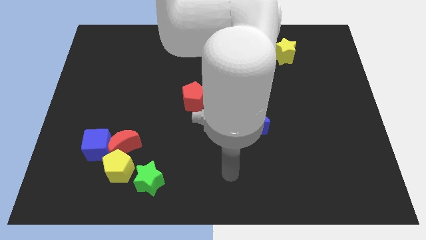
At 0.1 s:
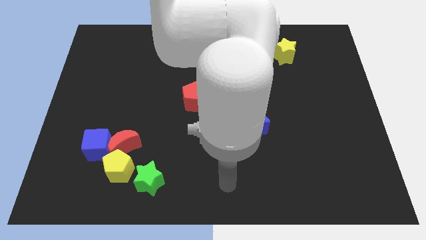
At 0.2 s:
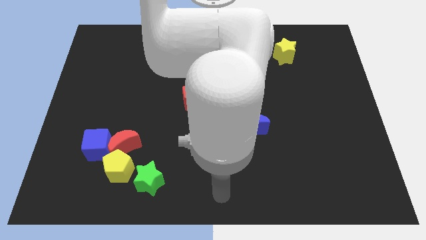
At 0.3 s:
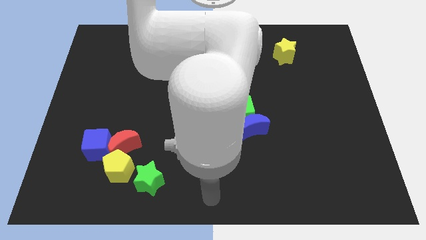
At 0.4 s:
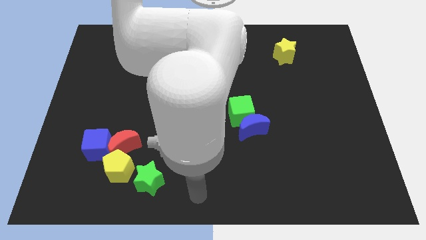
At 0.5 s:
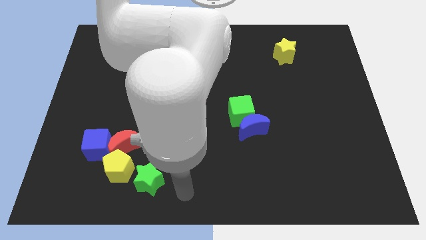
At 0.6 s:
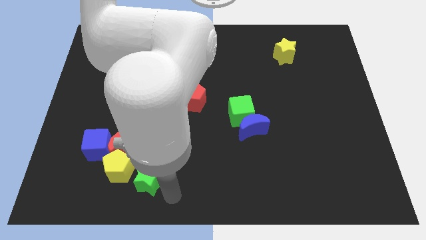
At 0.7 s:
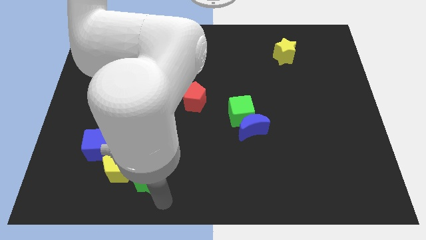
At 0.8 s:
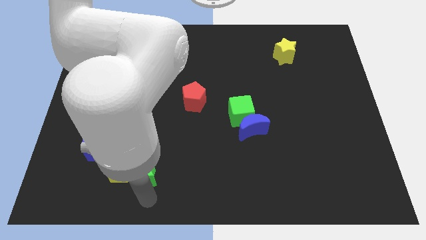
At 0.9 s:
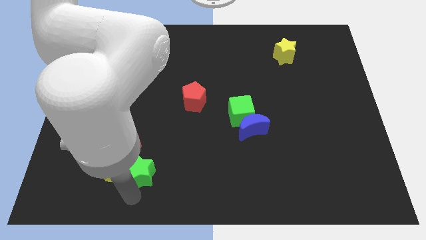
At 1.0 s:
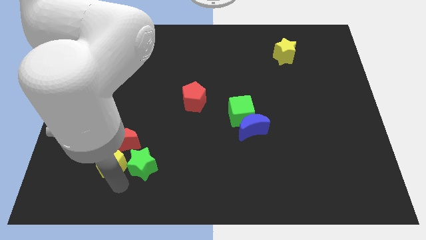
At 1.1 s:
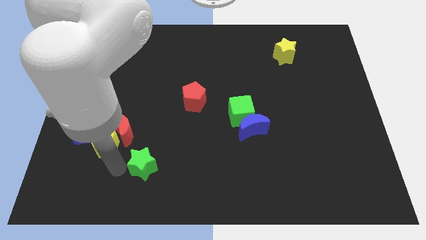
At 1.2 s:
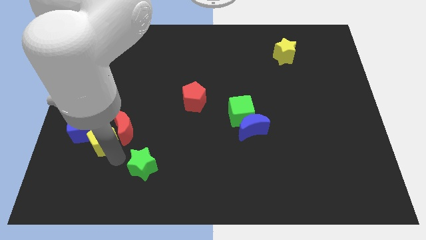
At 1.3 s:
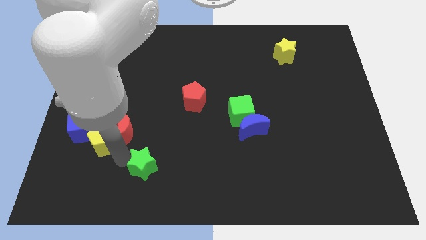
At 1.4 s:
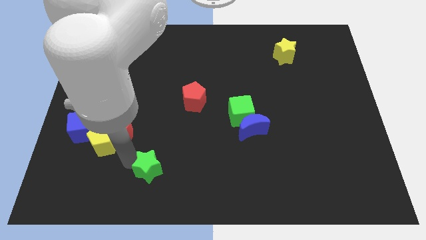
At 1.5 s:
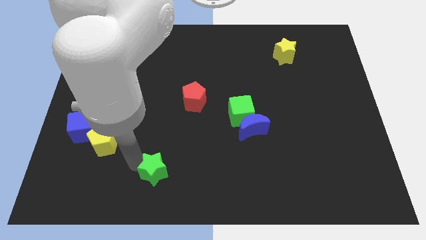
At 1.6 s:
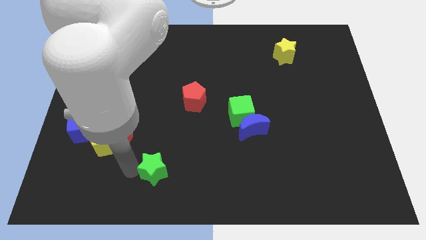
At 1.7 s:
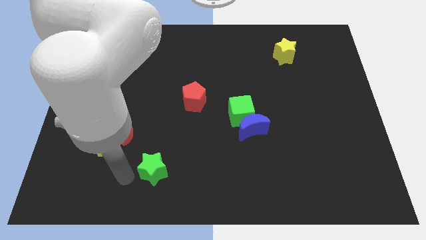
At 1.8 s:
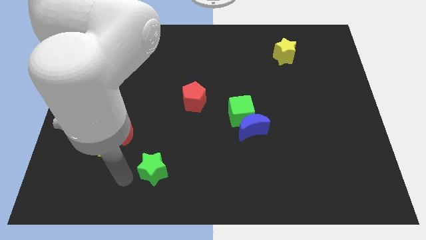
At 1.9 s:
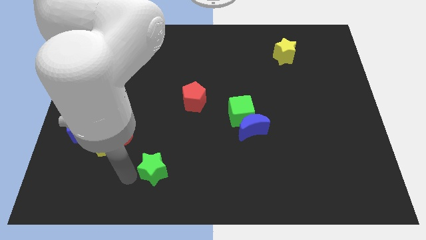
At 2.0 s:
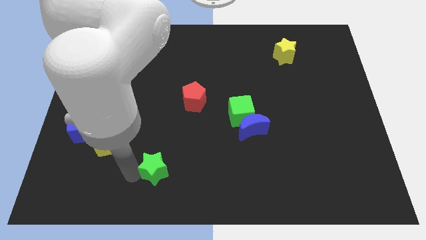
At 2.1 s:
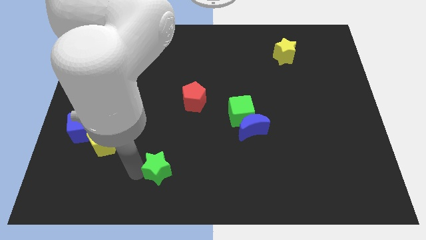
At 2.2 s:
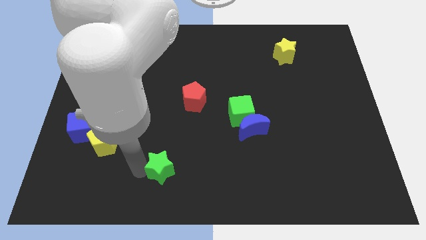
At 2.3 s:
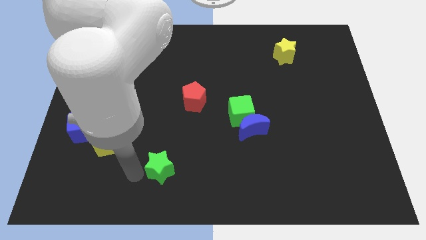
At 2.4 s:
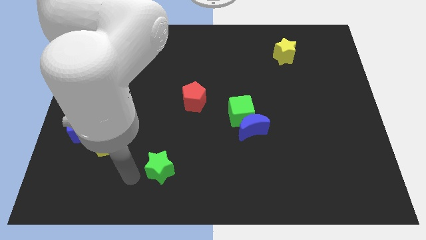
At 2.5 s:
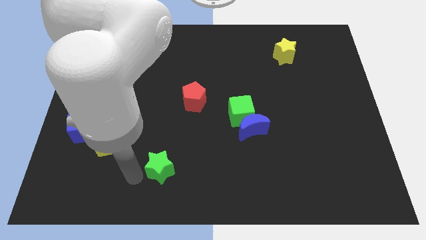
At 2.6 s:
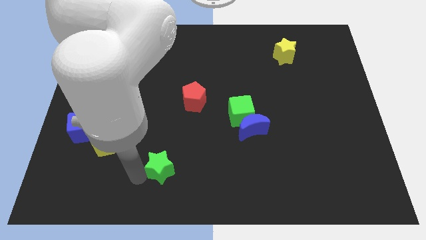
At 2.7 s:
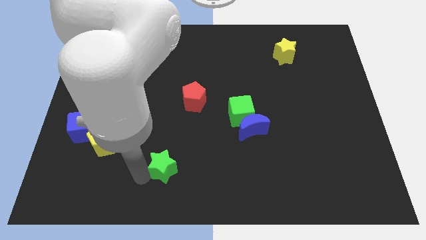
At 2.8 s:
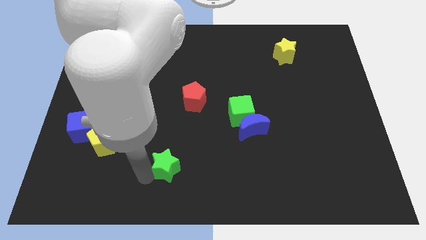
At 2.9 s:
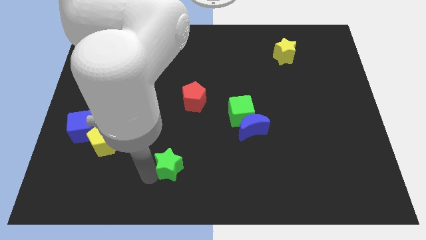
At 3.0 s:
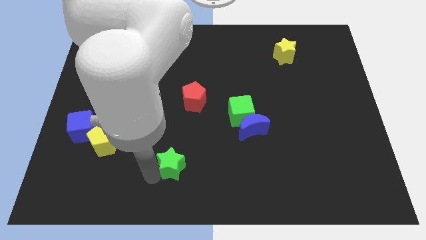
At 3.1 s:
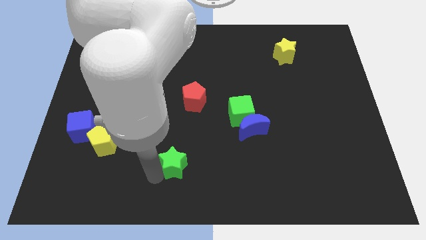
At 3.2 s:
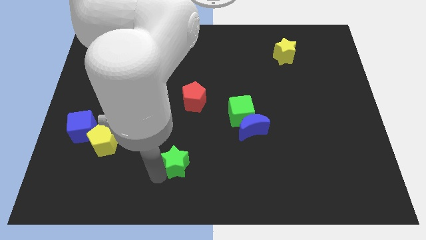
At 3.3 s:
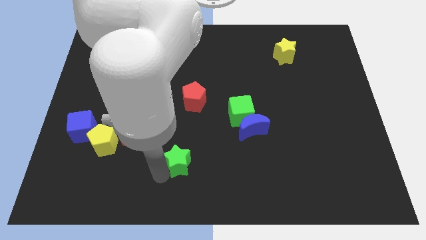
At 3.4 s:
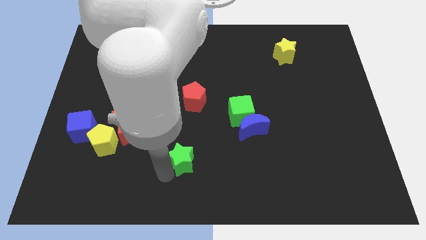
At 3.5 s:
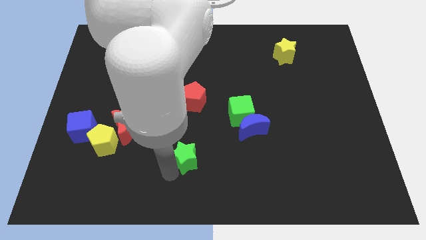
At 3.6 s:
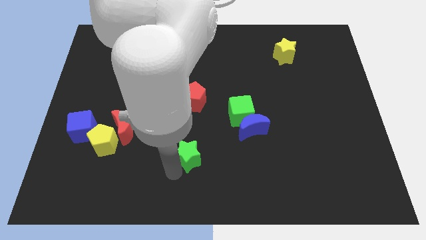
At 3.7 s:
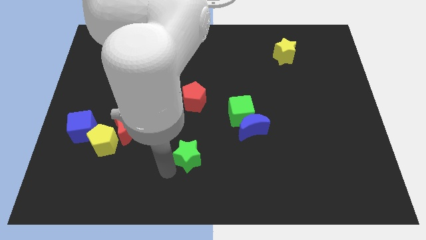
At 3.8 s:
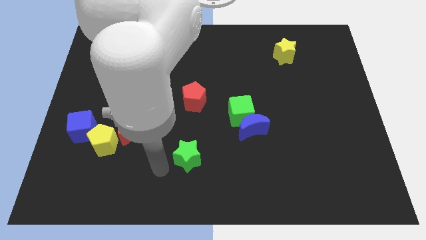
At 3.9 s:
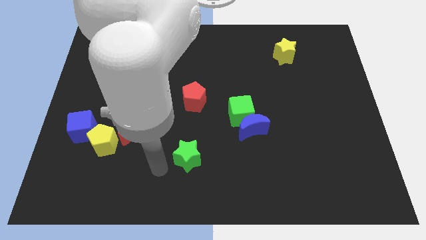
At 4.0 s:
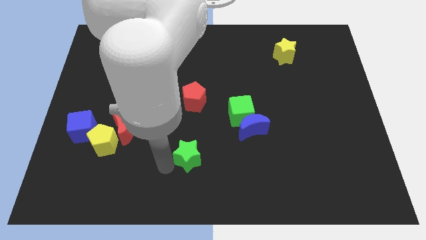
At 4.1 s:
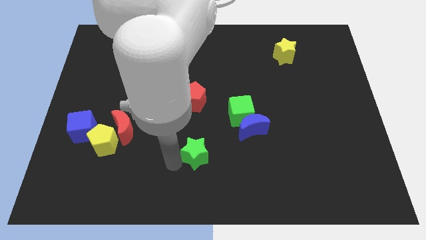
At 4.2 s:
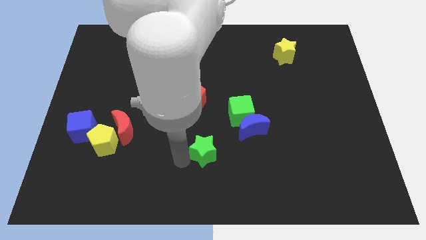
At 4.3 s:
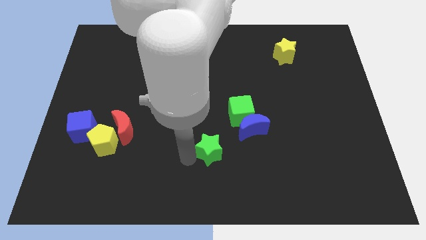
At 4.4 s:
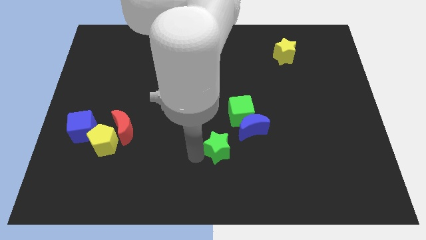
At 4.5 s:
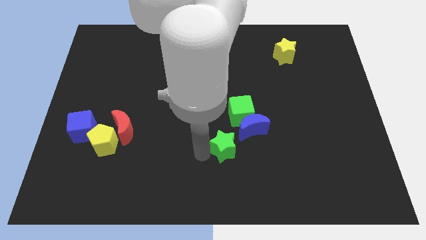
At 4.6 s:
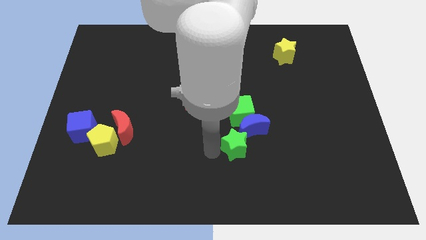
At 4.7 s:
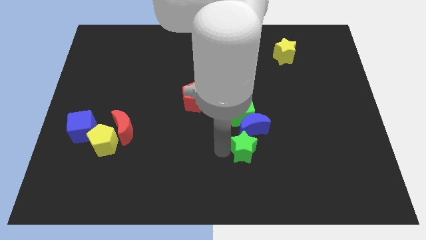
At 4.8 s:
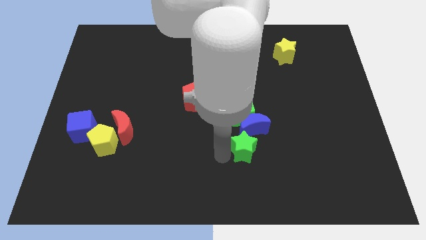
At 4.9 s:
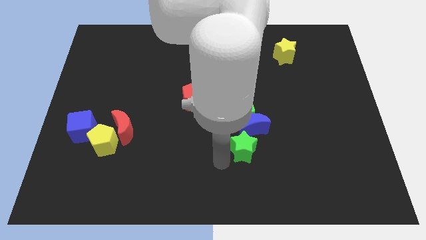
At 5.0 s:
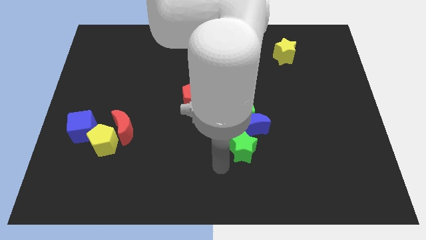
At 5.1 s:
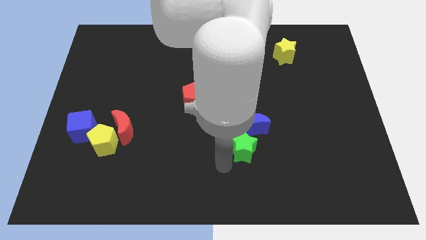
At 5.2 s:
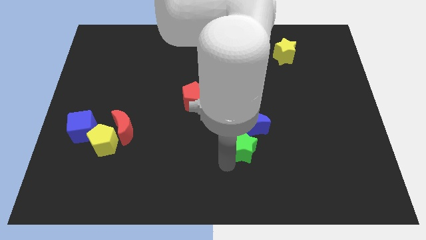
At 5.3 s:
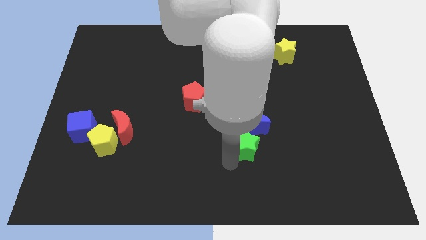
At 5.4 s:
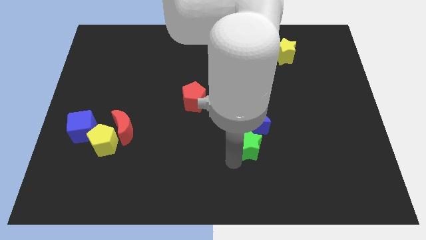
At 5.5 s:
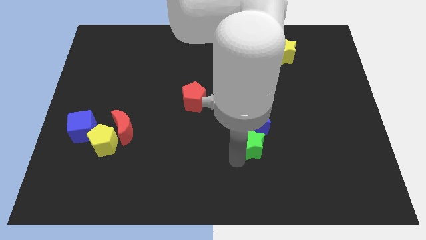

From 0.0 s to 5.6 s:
put the green star to the bottom right side of the green cube

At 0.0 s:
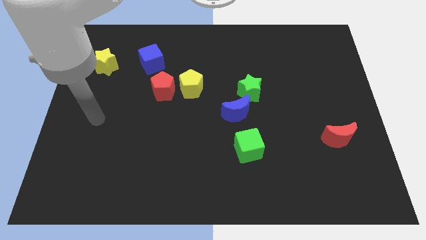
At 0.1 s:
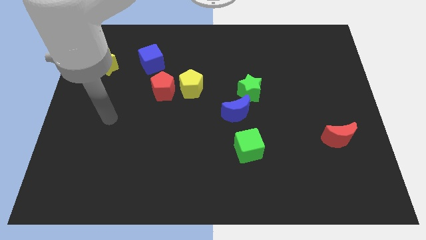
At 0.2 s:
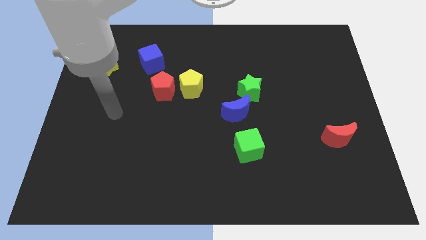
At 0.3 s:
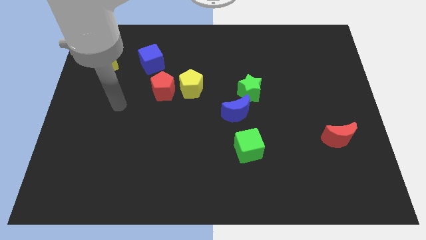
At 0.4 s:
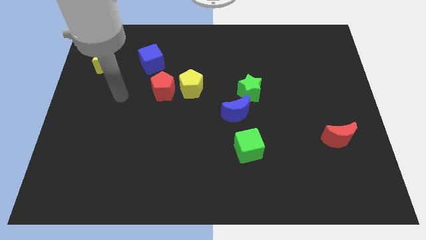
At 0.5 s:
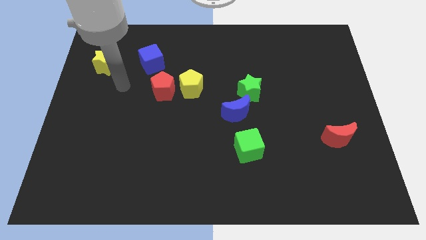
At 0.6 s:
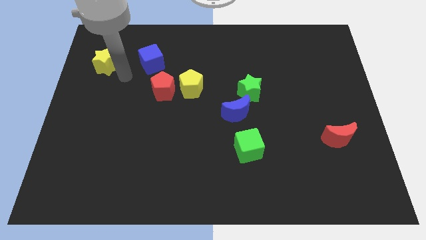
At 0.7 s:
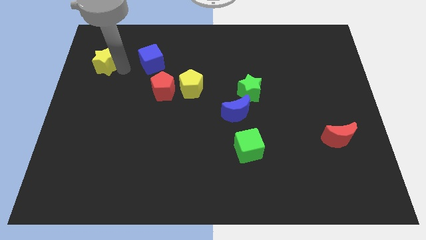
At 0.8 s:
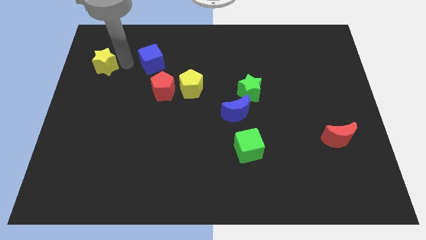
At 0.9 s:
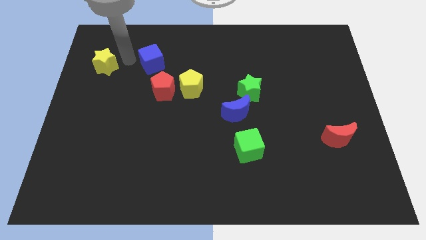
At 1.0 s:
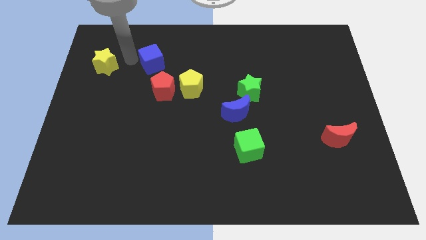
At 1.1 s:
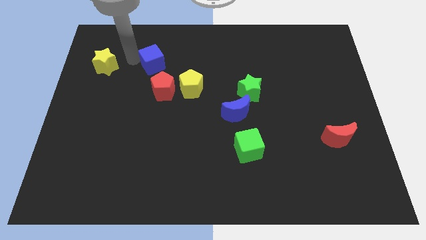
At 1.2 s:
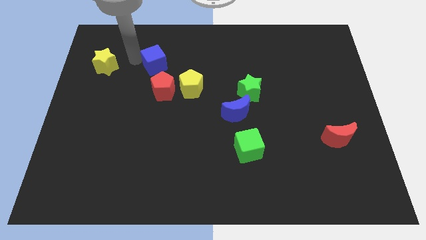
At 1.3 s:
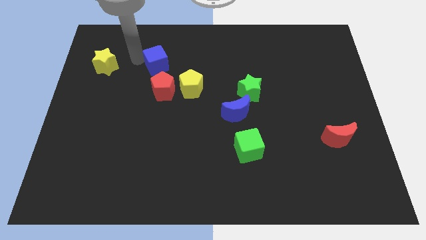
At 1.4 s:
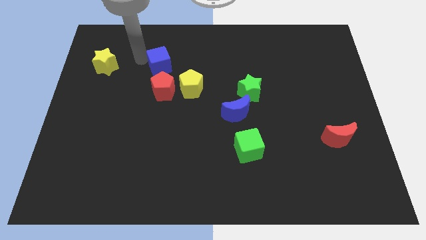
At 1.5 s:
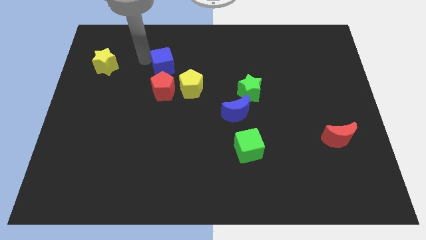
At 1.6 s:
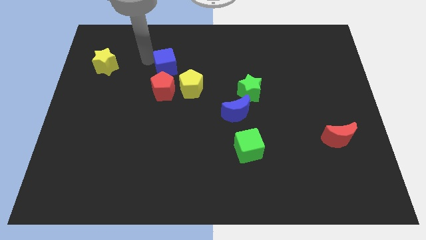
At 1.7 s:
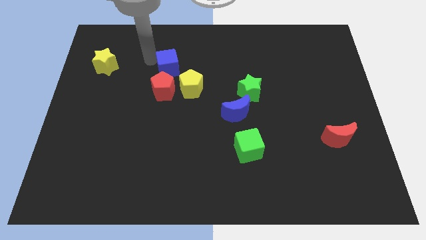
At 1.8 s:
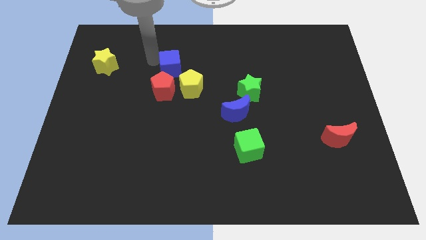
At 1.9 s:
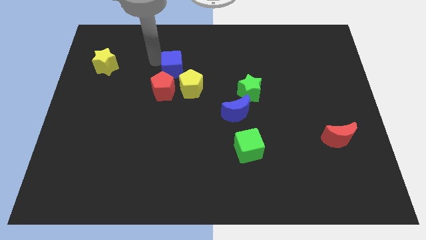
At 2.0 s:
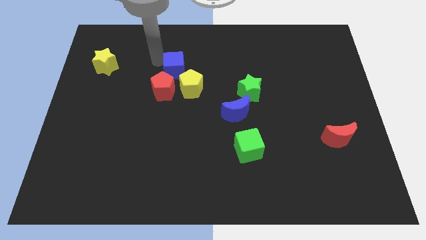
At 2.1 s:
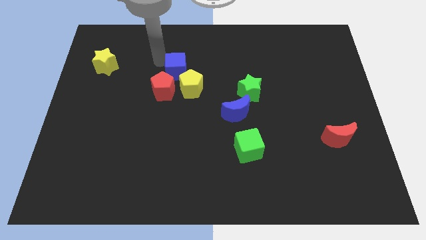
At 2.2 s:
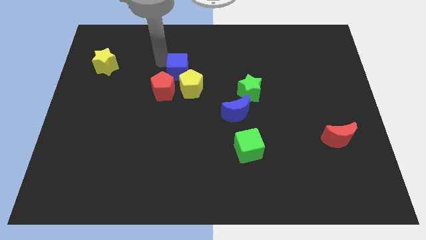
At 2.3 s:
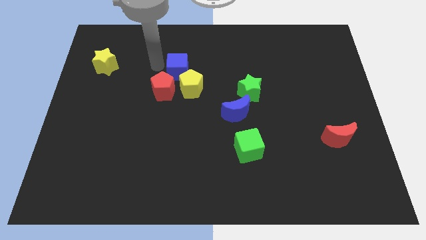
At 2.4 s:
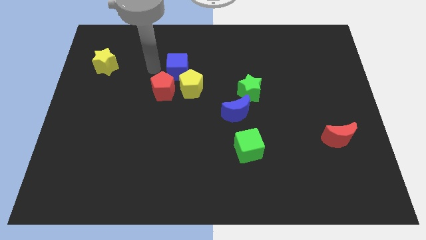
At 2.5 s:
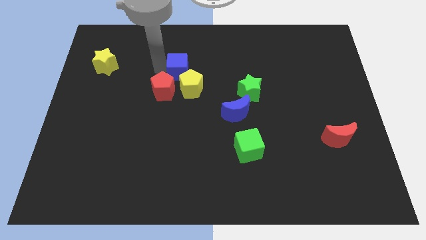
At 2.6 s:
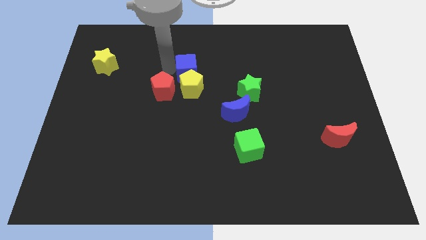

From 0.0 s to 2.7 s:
move the blue cube to the top right of the yellow pentagon
